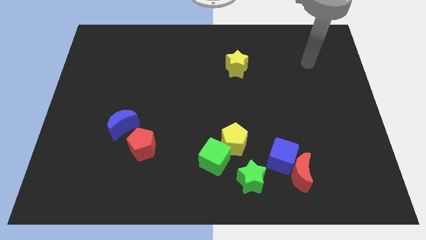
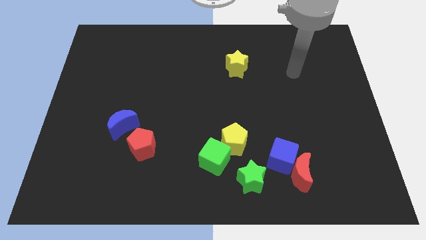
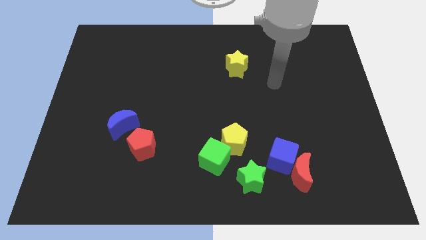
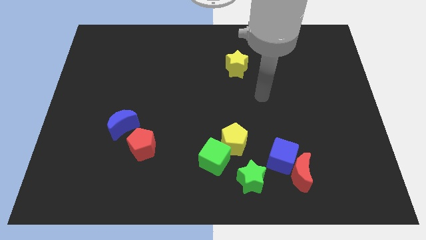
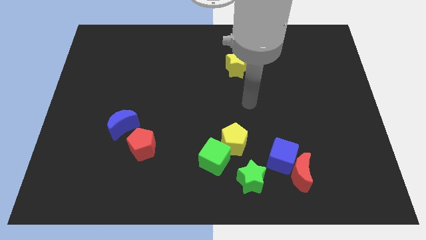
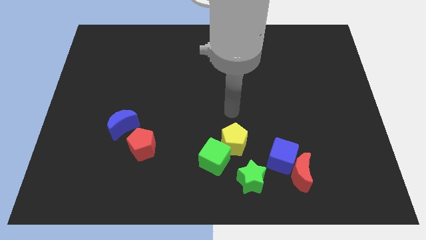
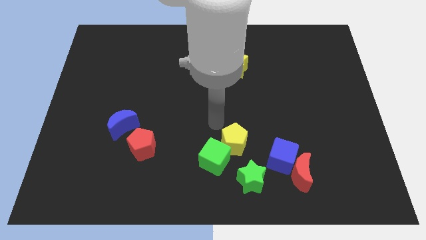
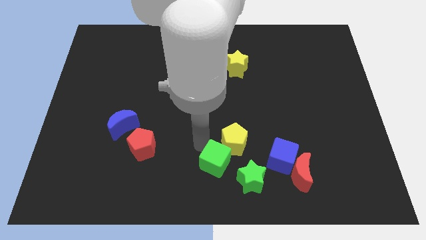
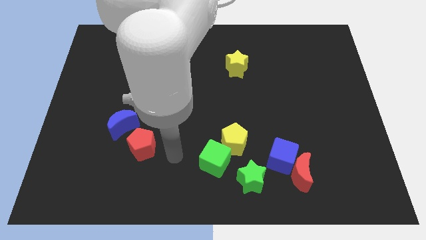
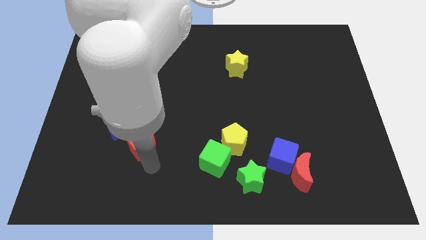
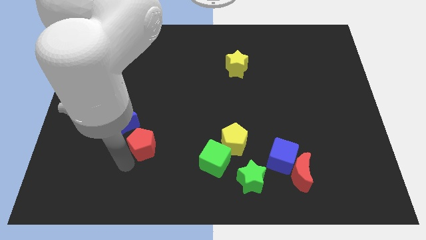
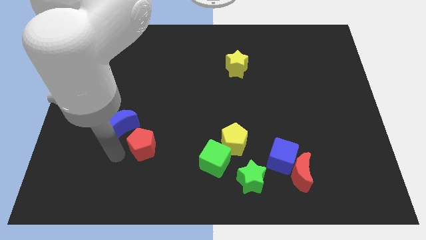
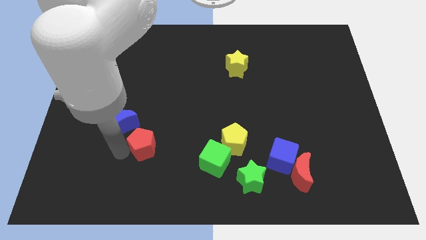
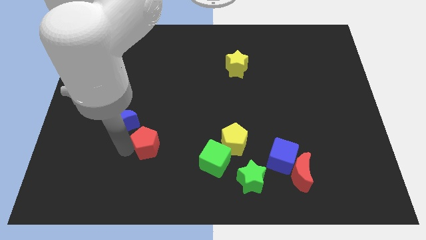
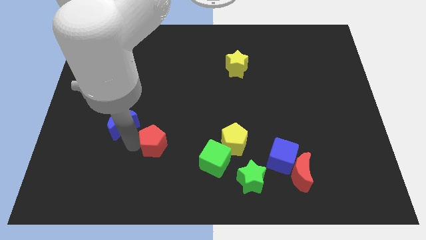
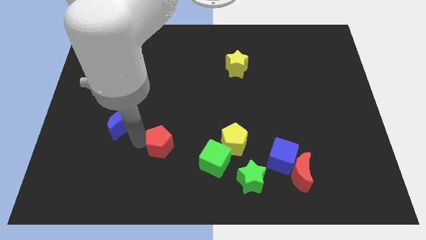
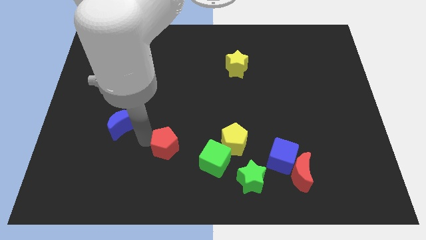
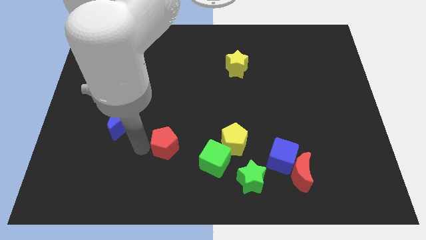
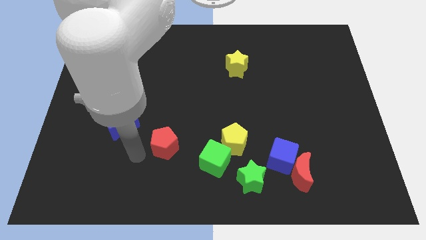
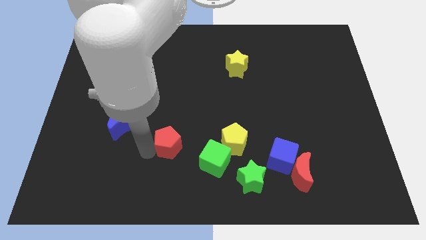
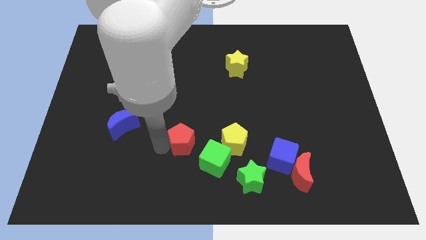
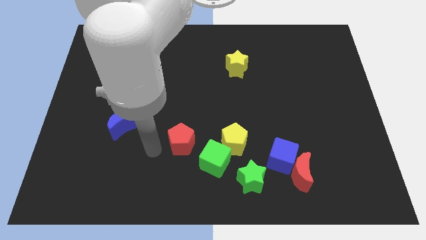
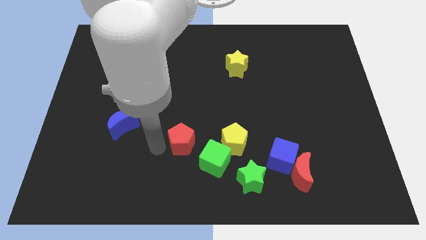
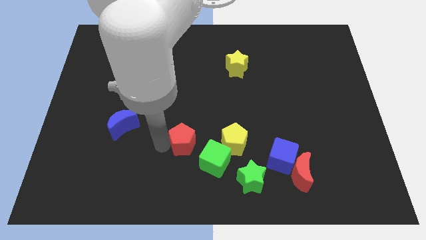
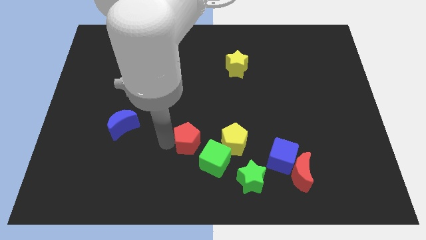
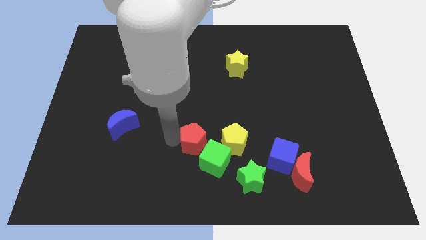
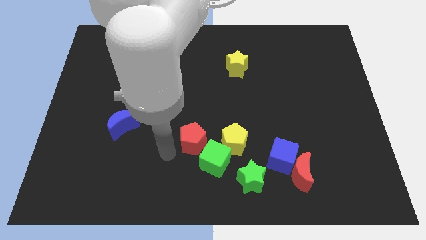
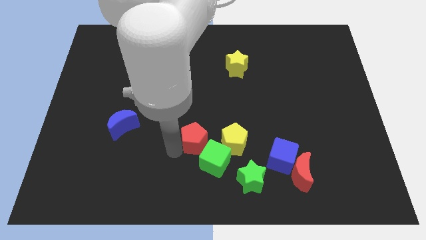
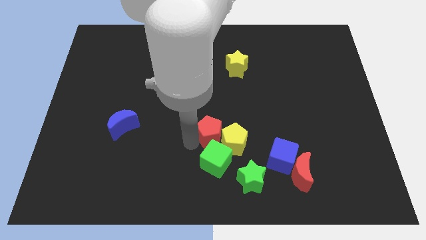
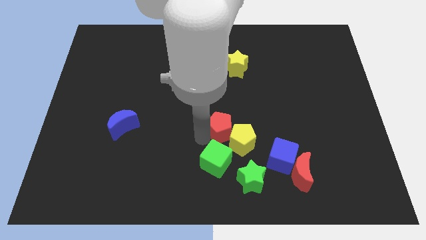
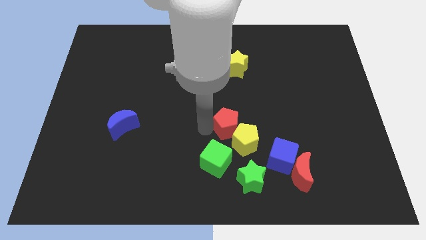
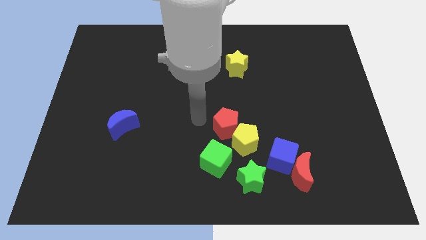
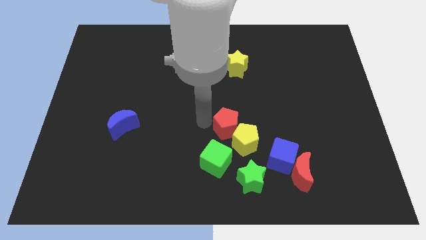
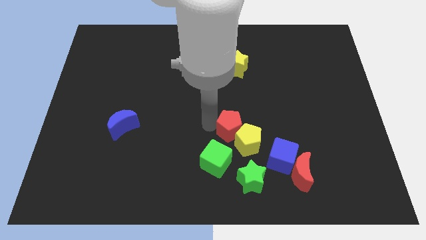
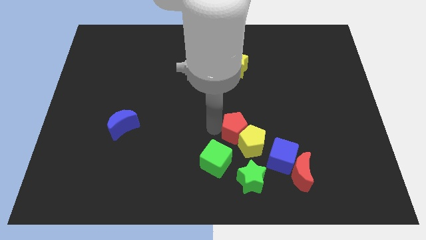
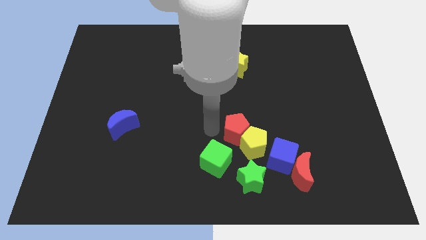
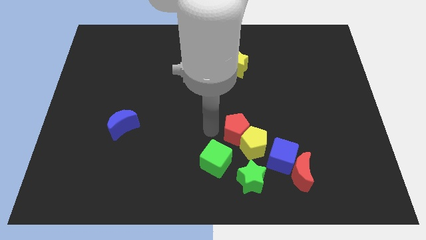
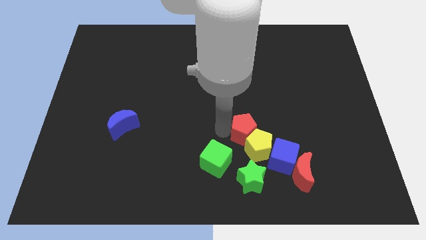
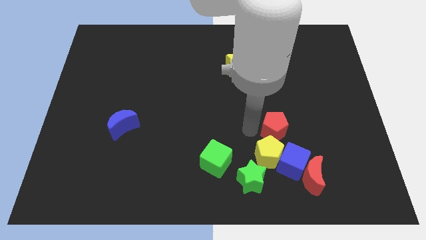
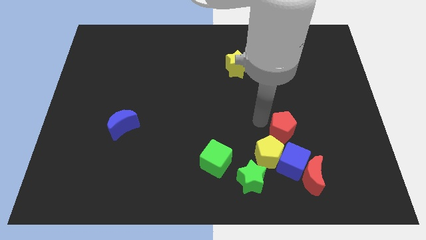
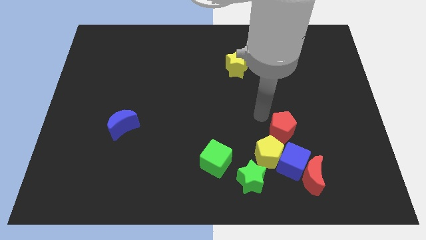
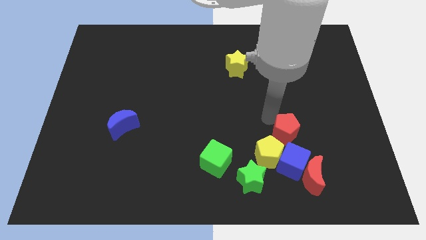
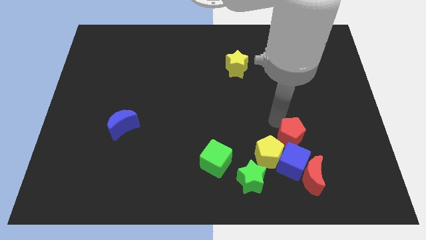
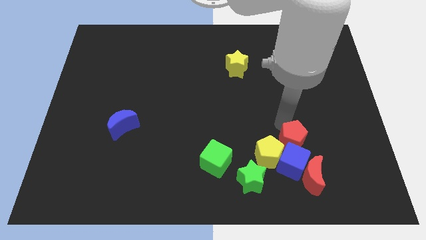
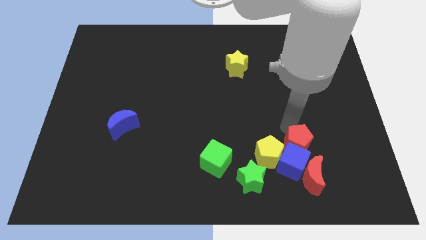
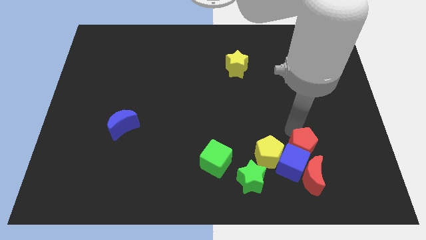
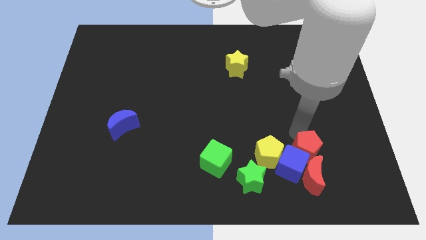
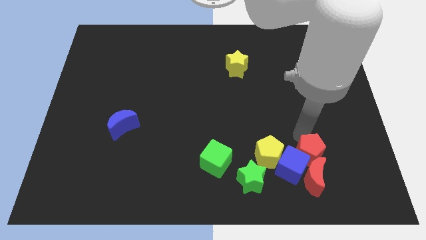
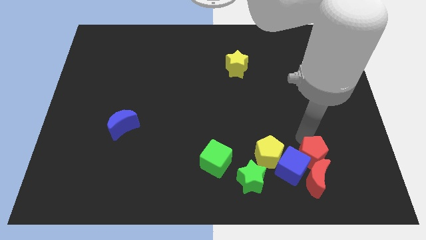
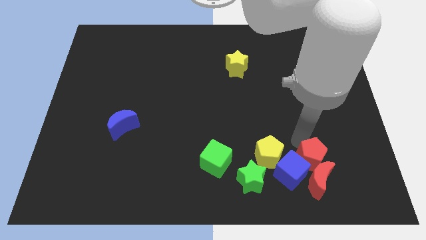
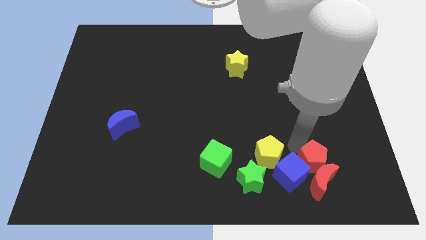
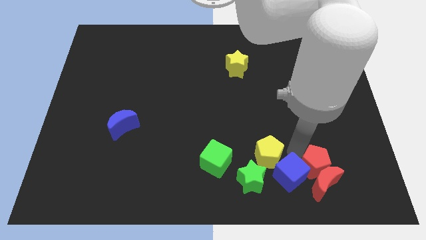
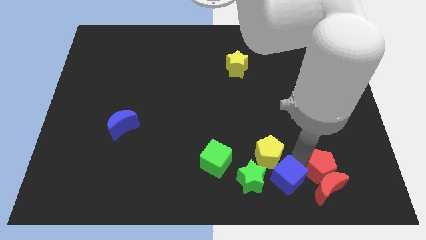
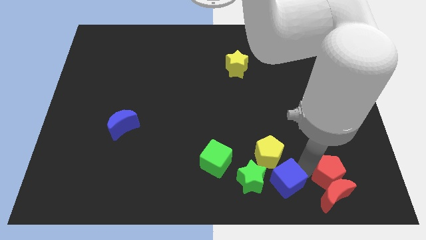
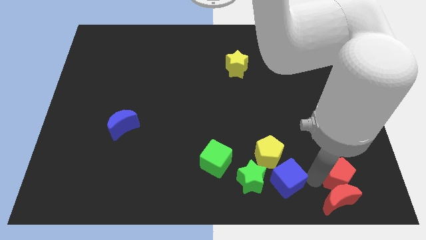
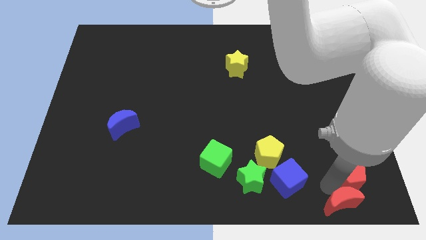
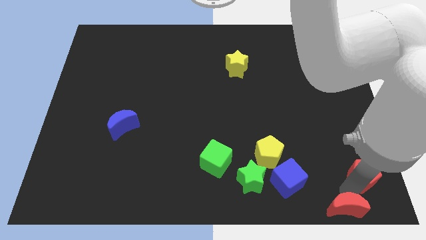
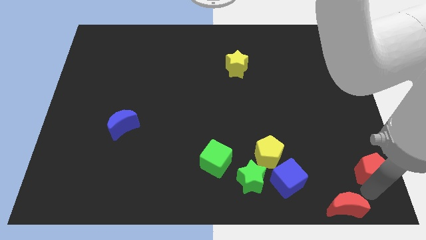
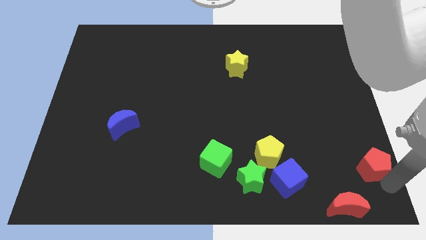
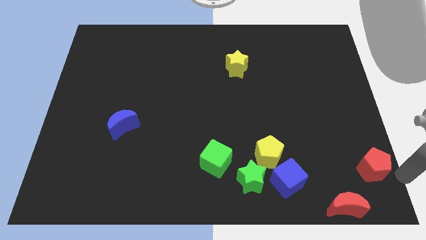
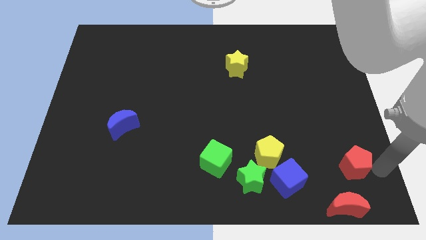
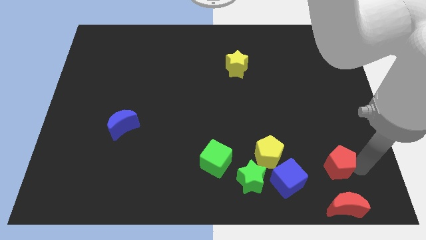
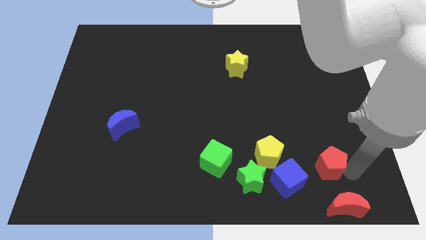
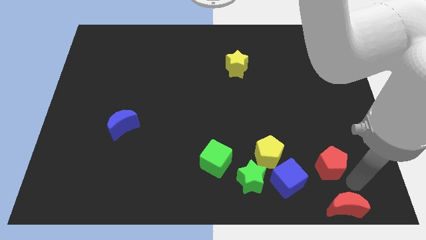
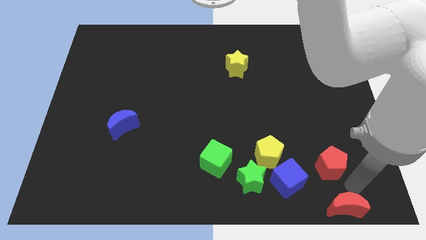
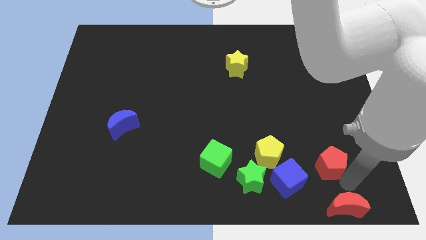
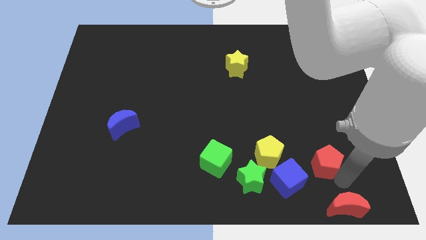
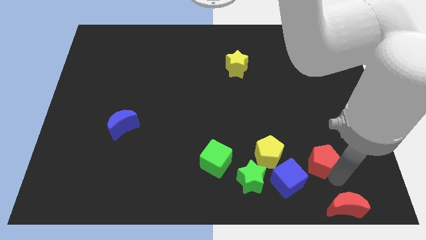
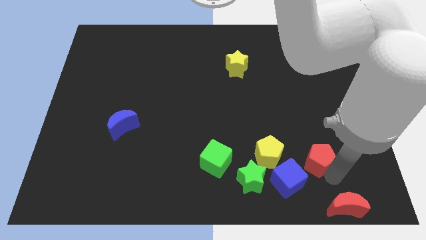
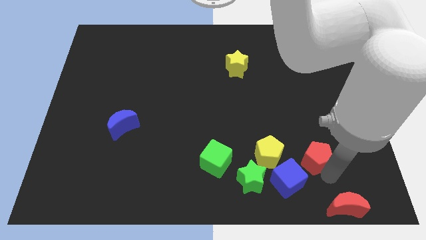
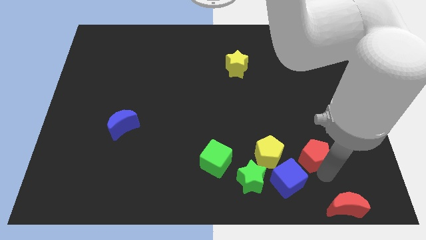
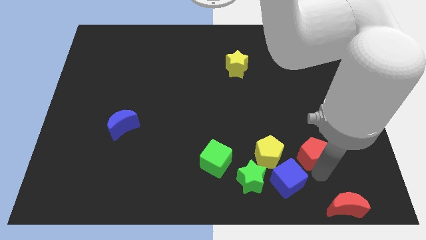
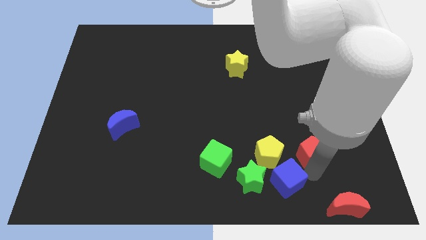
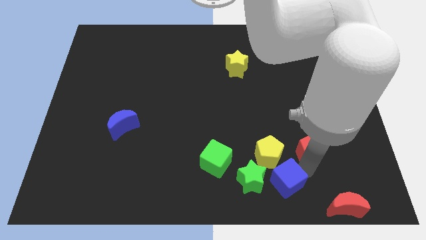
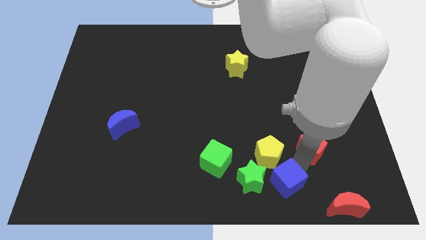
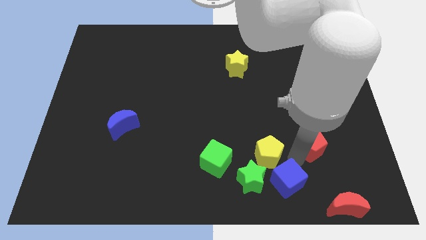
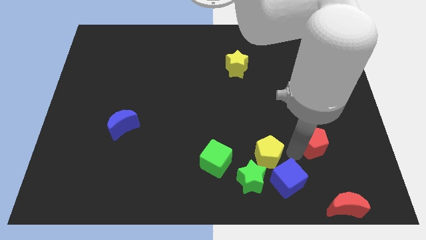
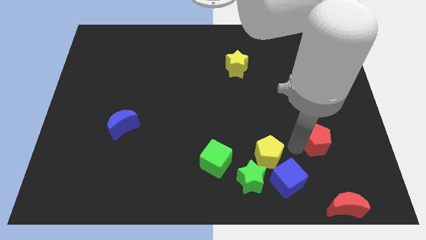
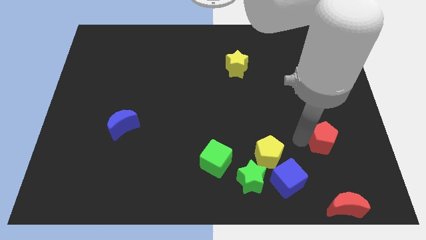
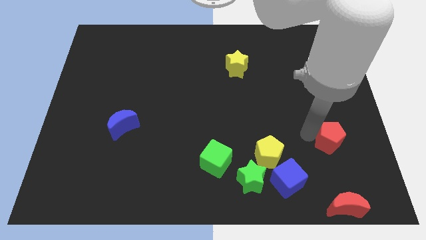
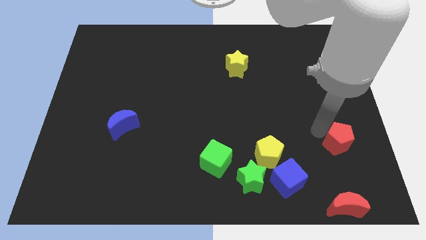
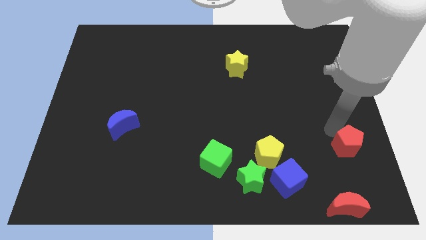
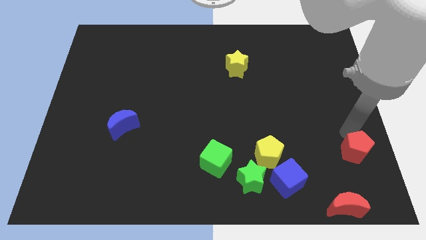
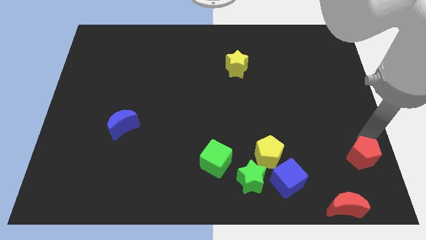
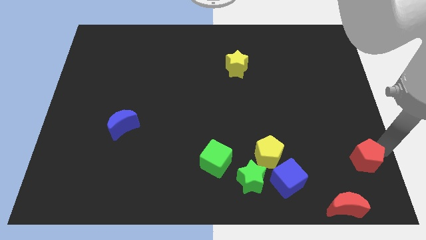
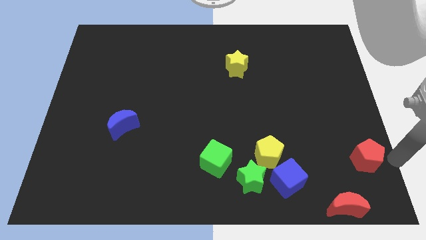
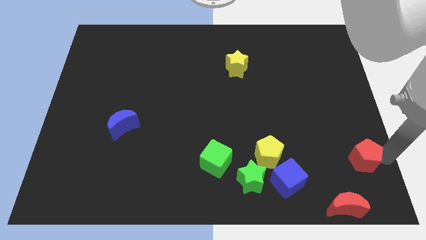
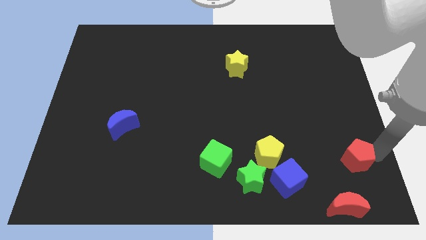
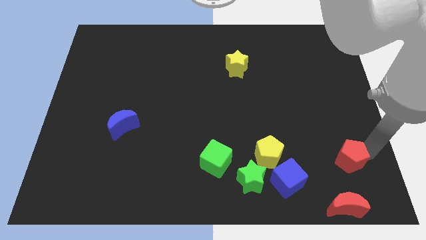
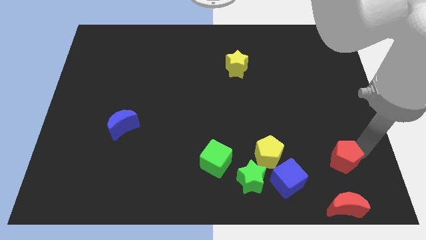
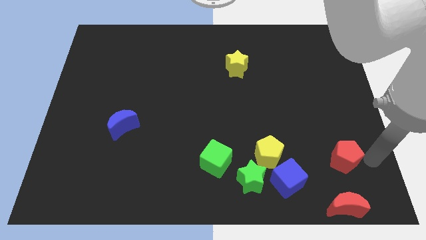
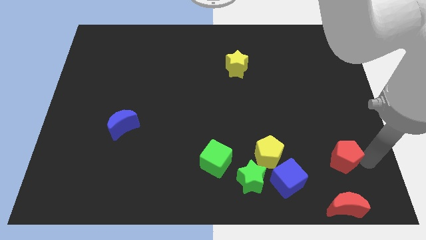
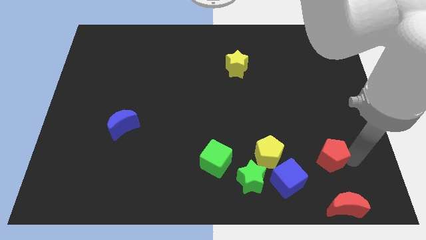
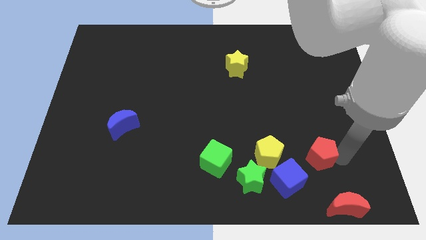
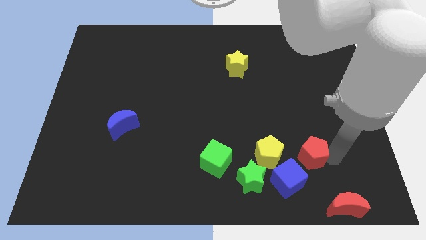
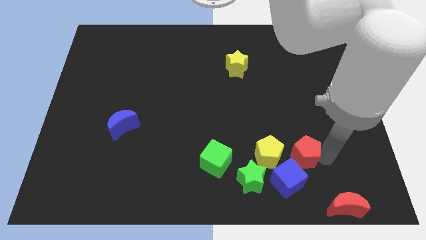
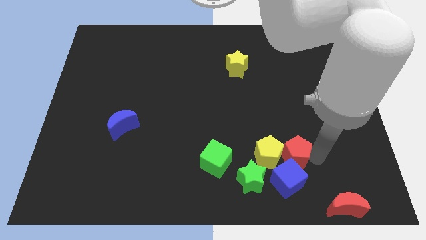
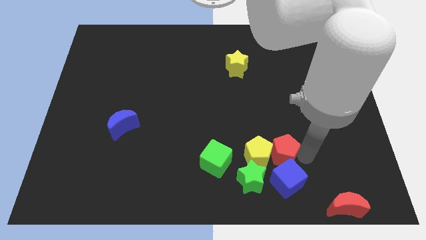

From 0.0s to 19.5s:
slide the red pentagon right of the yellow pentagon
